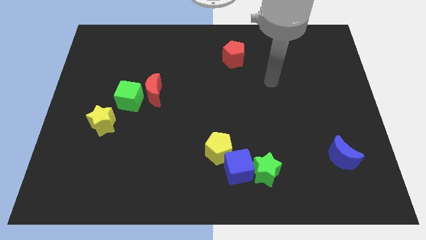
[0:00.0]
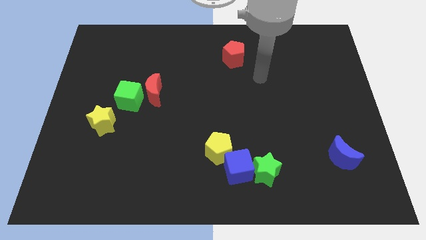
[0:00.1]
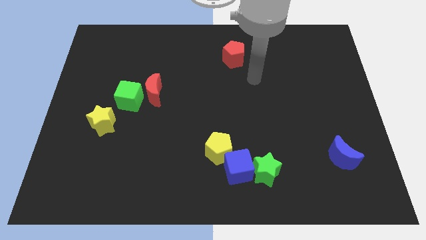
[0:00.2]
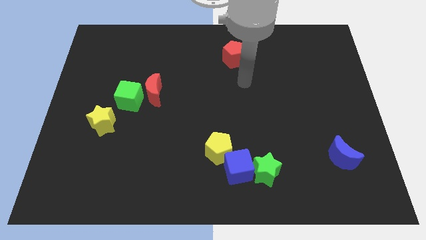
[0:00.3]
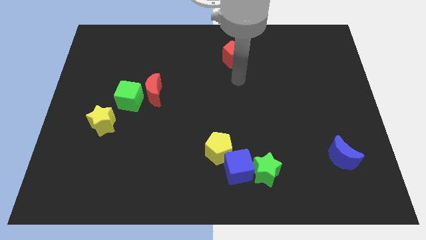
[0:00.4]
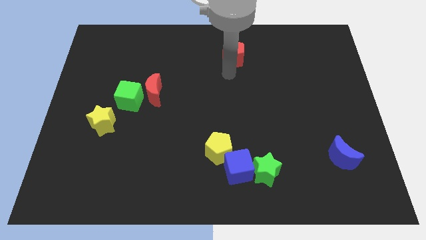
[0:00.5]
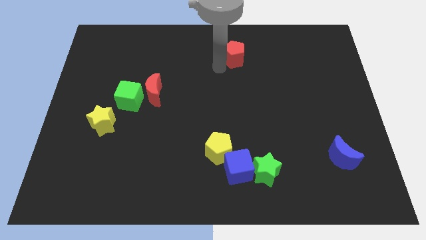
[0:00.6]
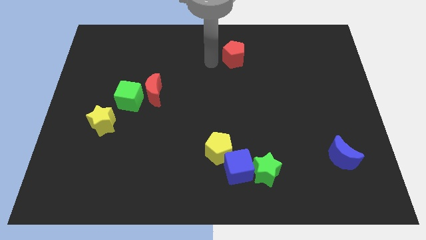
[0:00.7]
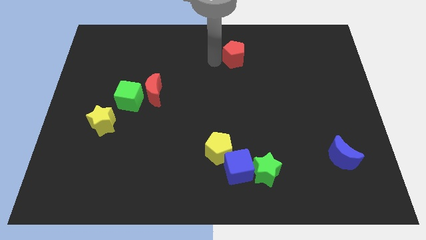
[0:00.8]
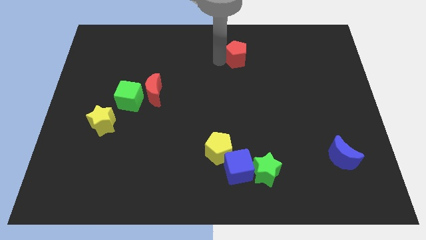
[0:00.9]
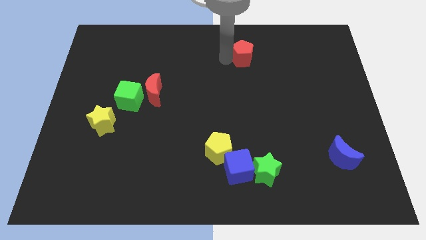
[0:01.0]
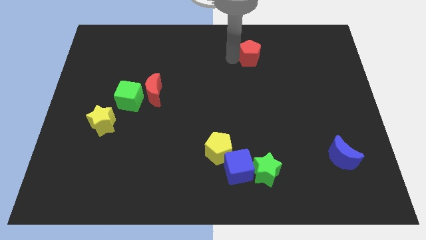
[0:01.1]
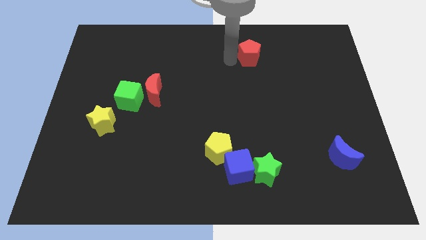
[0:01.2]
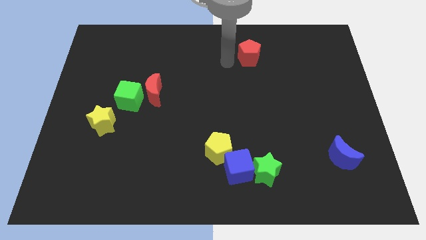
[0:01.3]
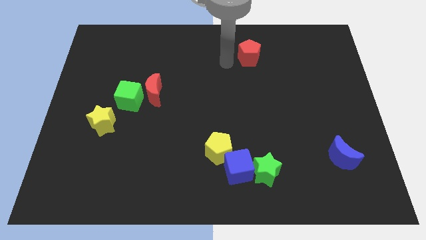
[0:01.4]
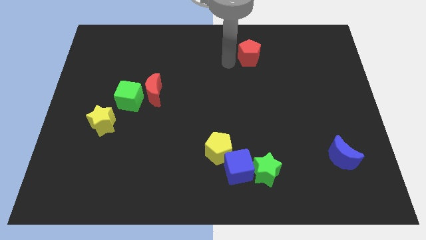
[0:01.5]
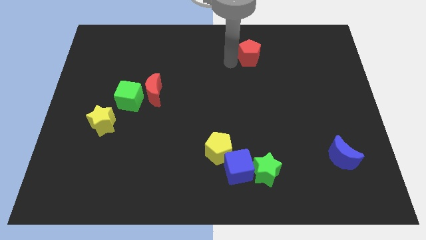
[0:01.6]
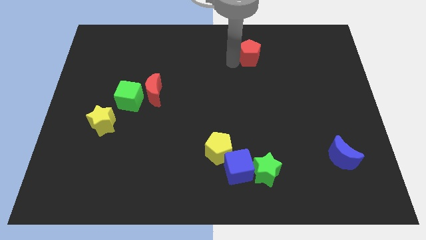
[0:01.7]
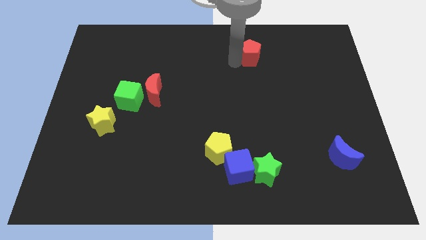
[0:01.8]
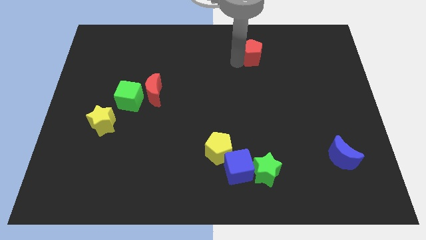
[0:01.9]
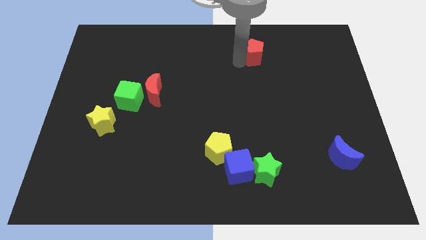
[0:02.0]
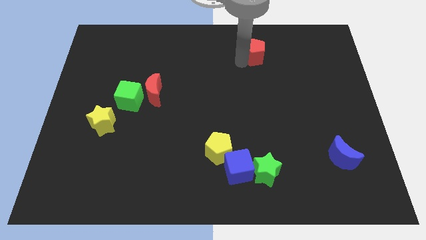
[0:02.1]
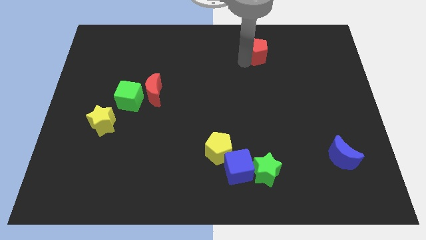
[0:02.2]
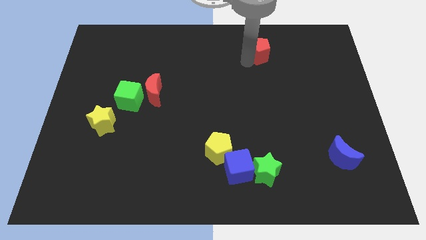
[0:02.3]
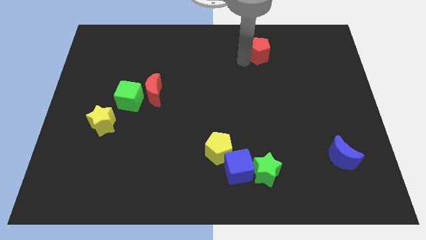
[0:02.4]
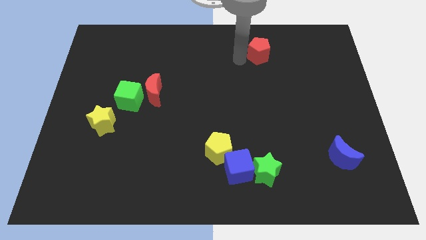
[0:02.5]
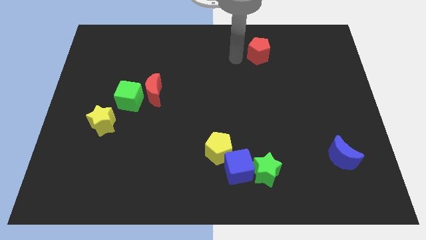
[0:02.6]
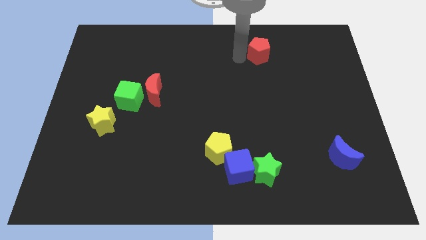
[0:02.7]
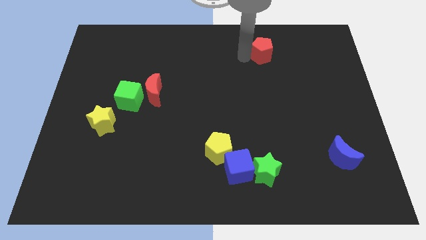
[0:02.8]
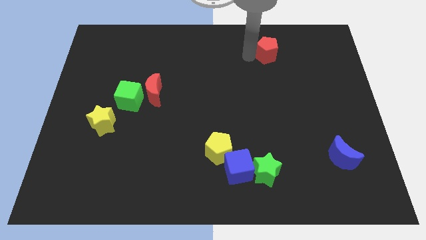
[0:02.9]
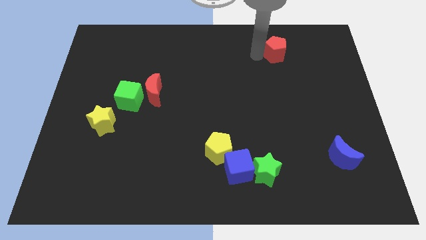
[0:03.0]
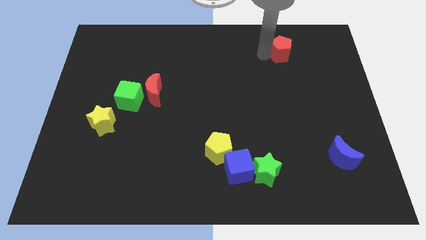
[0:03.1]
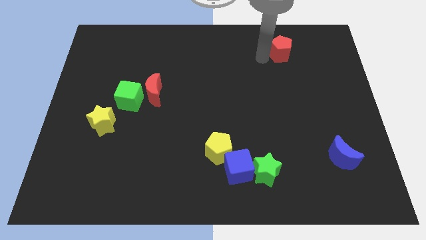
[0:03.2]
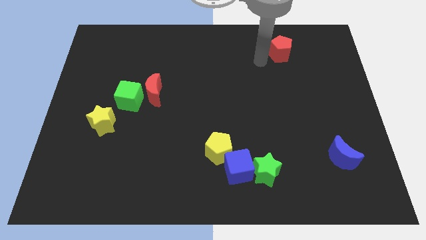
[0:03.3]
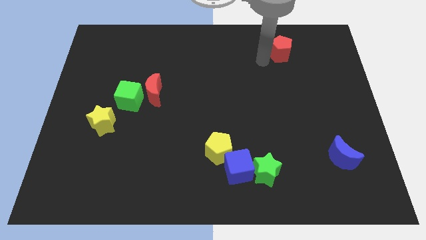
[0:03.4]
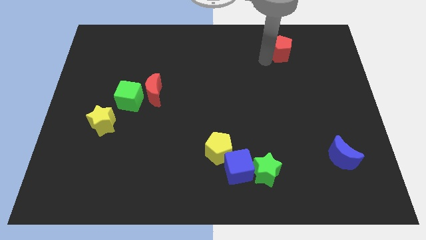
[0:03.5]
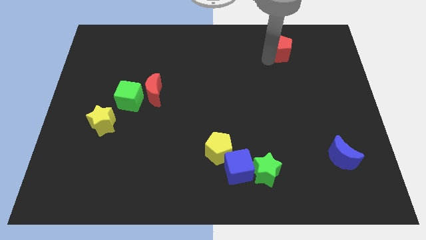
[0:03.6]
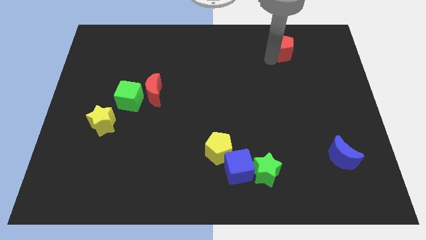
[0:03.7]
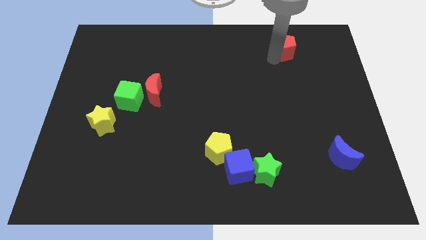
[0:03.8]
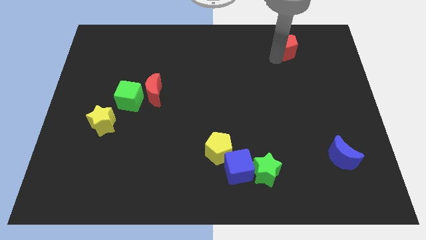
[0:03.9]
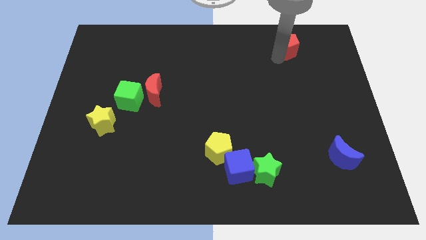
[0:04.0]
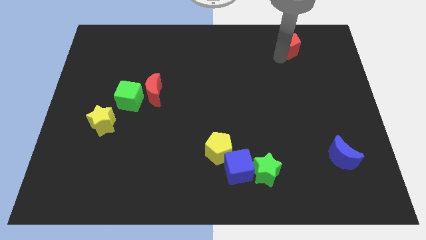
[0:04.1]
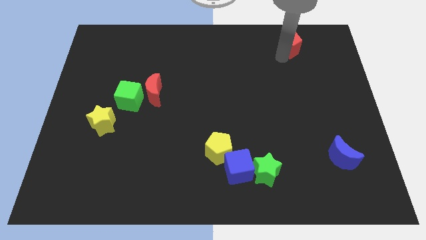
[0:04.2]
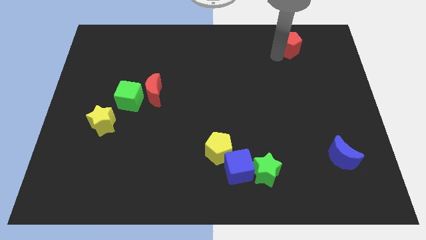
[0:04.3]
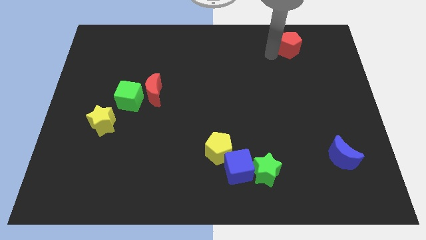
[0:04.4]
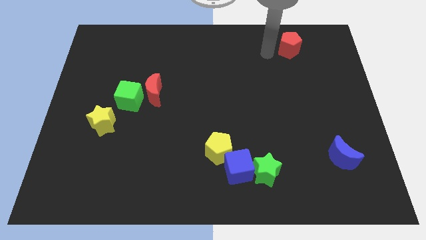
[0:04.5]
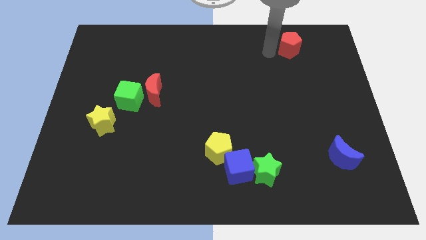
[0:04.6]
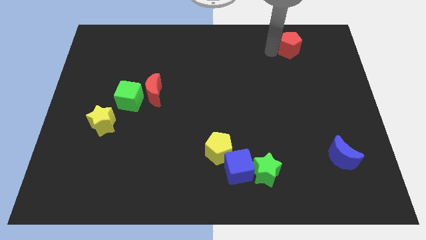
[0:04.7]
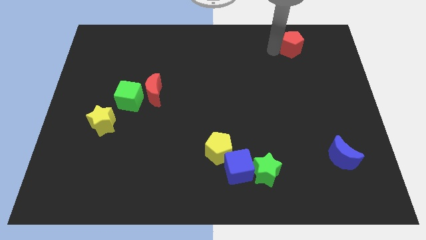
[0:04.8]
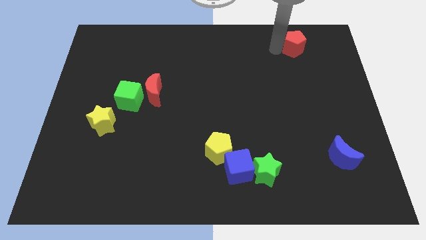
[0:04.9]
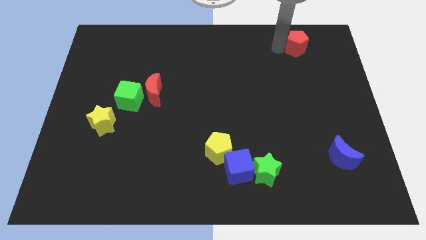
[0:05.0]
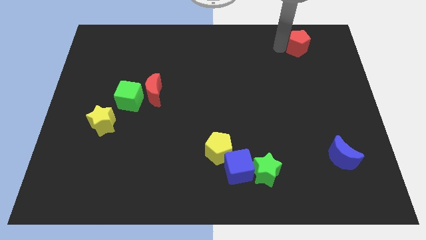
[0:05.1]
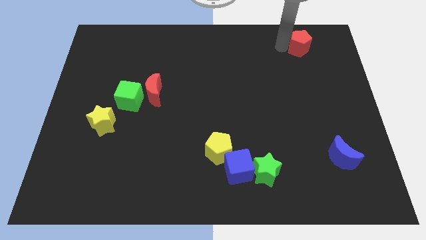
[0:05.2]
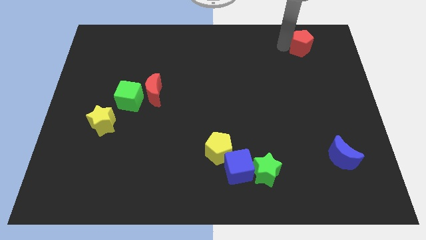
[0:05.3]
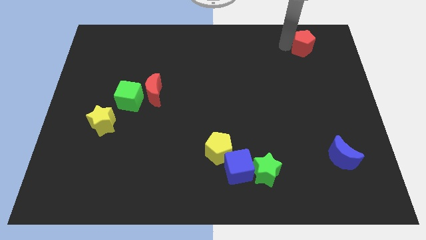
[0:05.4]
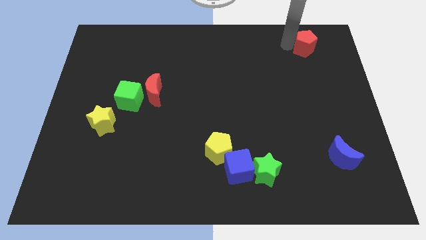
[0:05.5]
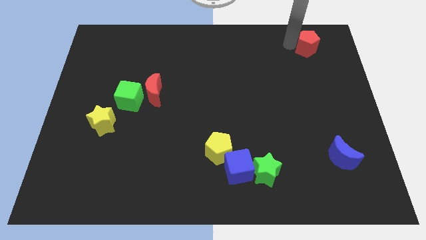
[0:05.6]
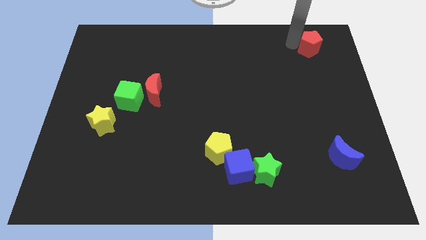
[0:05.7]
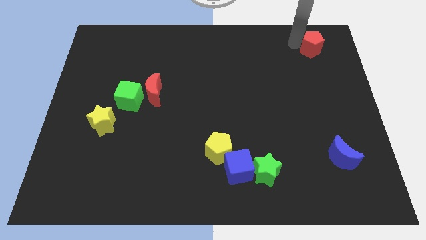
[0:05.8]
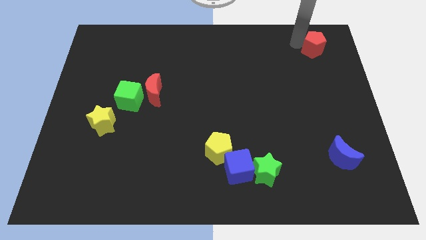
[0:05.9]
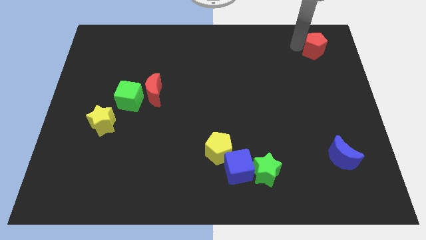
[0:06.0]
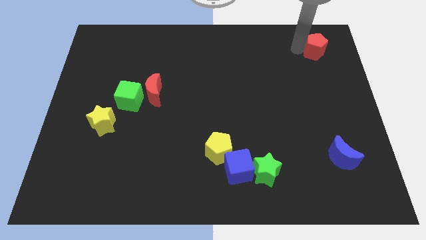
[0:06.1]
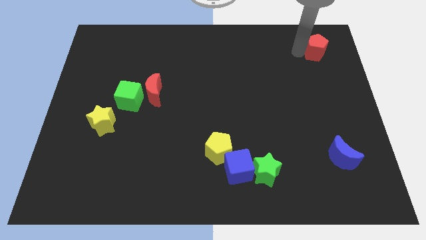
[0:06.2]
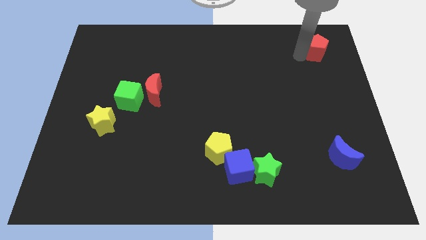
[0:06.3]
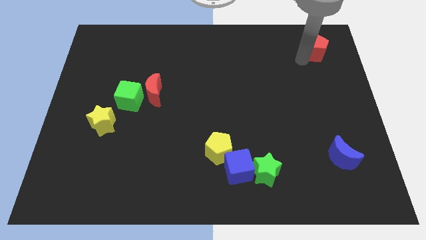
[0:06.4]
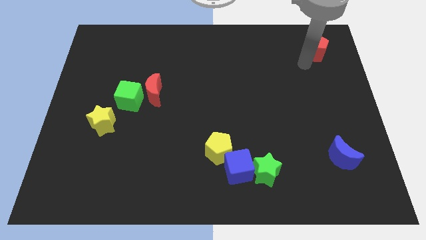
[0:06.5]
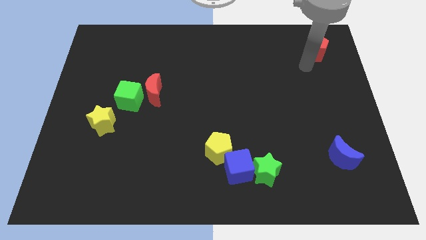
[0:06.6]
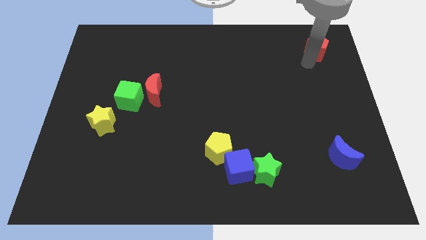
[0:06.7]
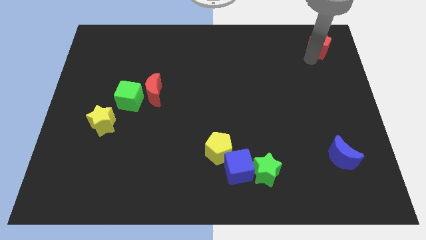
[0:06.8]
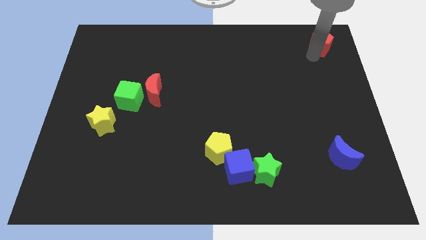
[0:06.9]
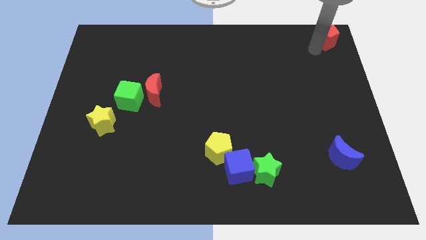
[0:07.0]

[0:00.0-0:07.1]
put the red pentagon to the top right corner
